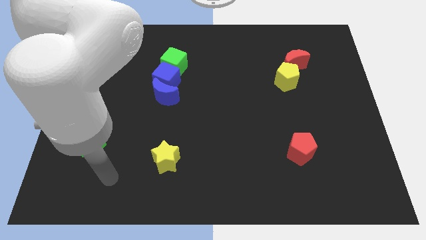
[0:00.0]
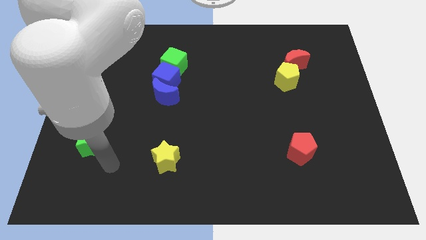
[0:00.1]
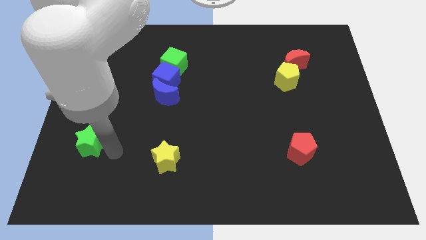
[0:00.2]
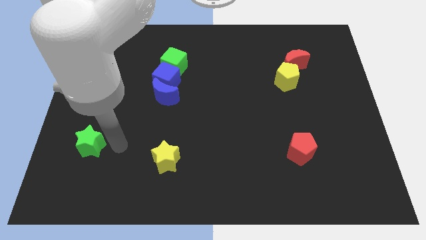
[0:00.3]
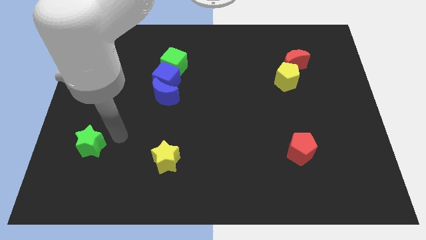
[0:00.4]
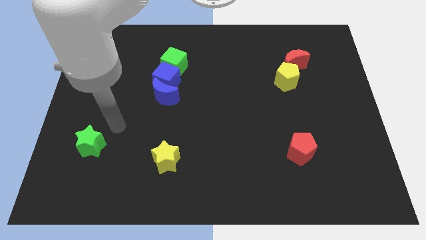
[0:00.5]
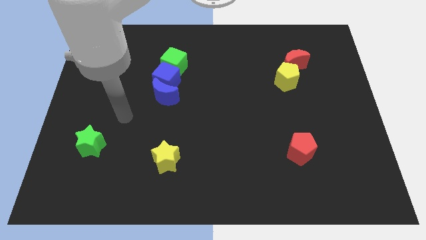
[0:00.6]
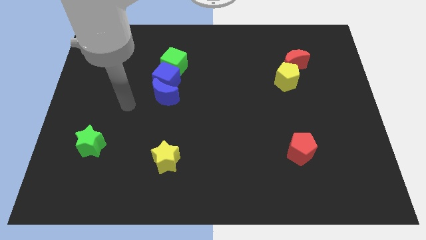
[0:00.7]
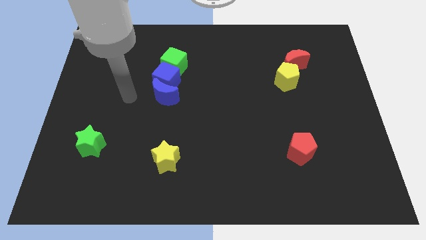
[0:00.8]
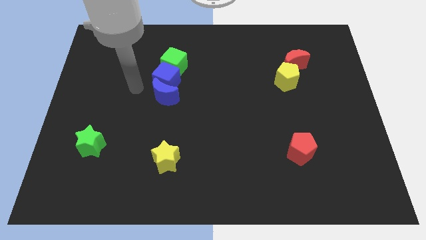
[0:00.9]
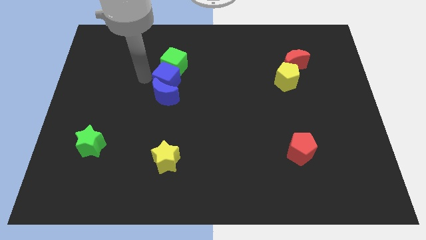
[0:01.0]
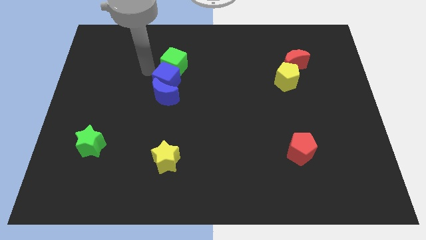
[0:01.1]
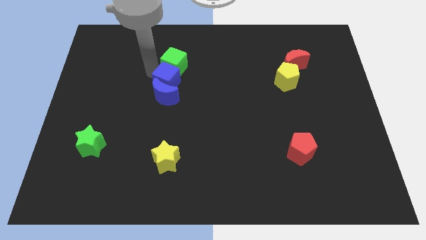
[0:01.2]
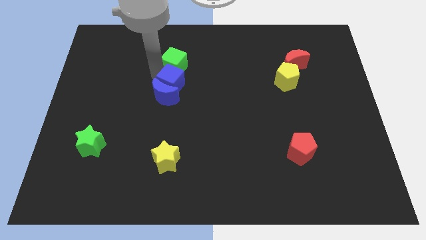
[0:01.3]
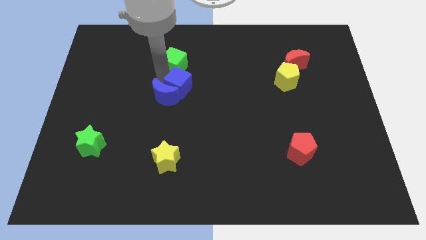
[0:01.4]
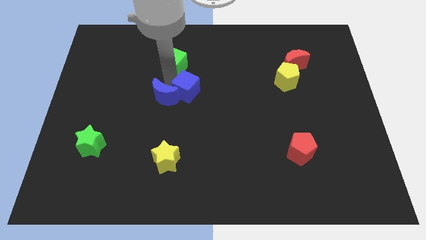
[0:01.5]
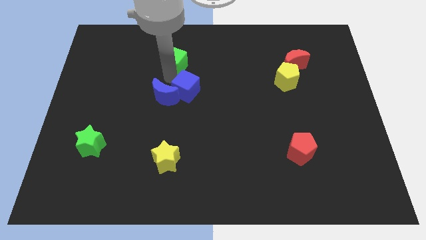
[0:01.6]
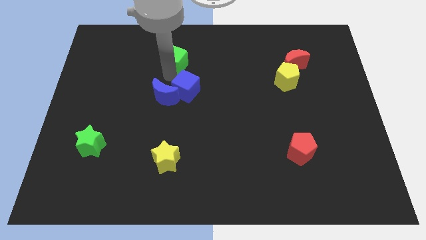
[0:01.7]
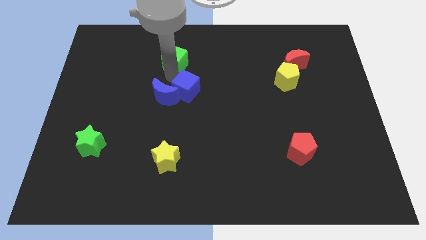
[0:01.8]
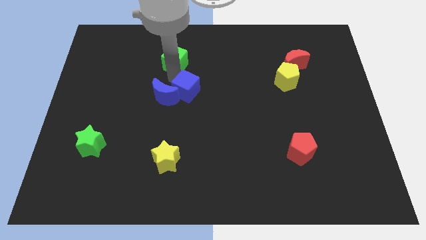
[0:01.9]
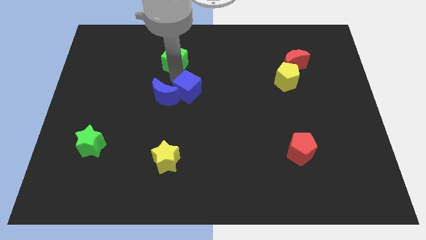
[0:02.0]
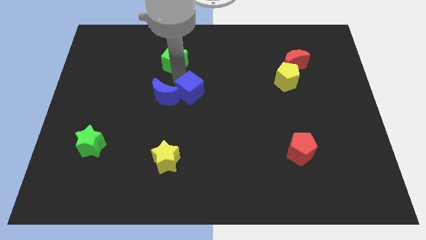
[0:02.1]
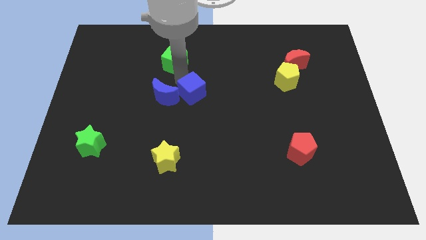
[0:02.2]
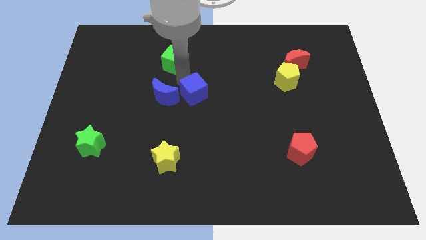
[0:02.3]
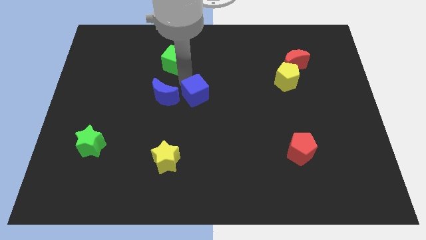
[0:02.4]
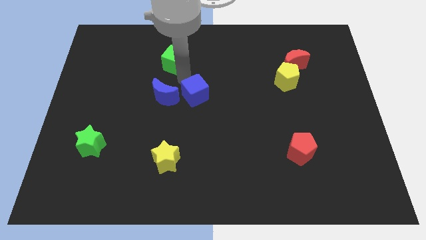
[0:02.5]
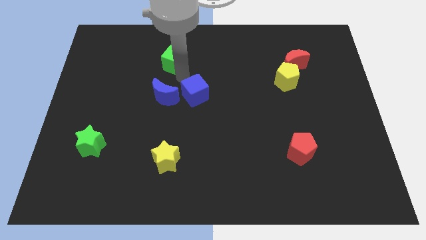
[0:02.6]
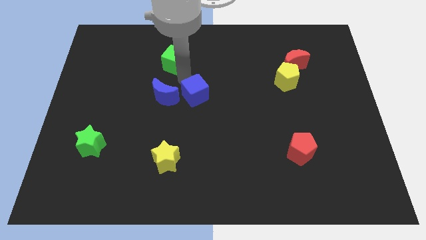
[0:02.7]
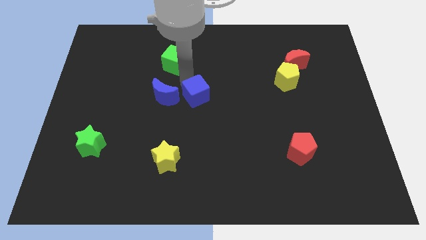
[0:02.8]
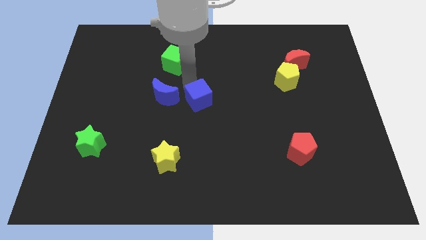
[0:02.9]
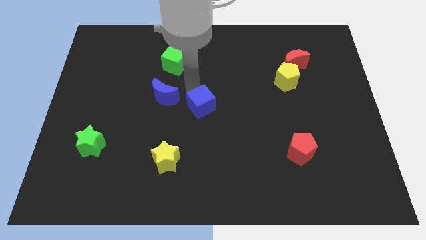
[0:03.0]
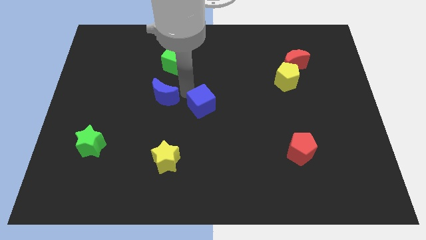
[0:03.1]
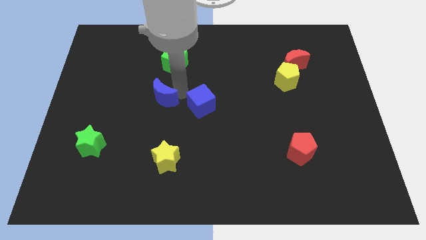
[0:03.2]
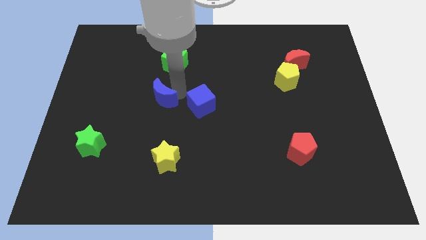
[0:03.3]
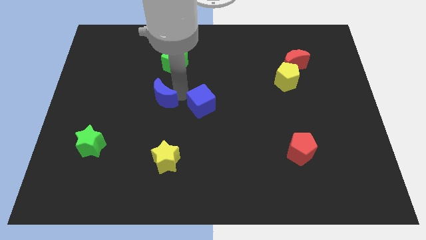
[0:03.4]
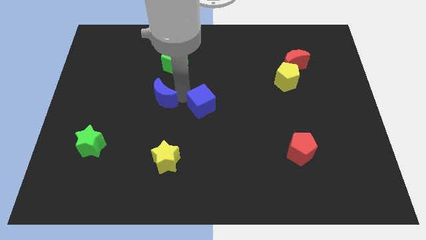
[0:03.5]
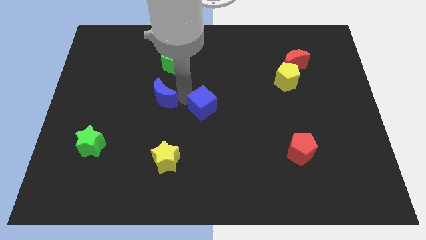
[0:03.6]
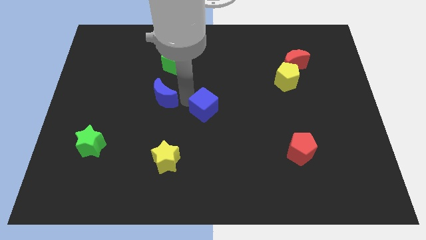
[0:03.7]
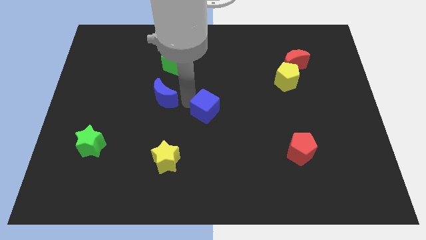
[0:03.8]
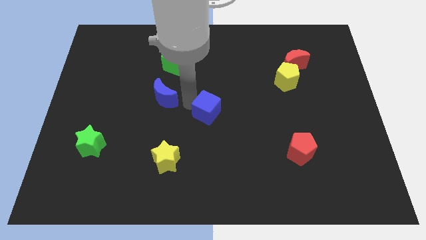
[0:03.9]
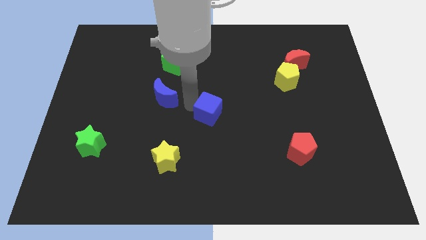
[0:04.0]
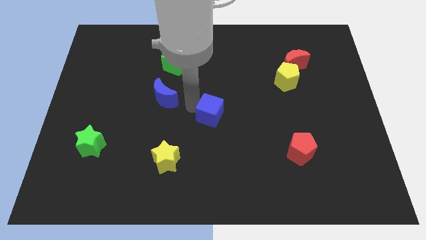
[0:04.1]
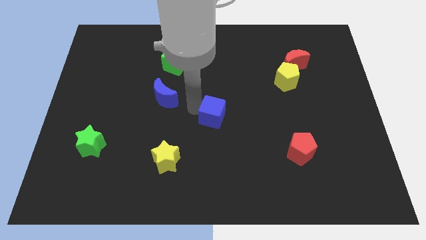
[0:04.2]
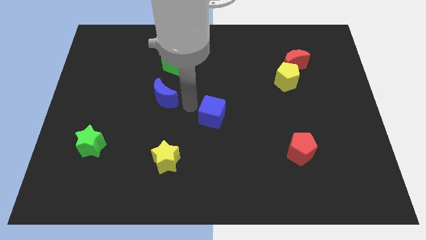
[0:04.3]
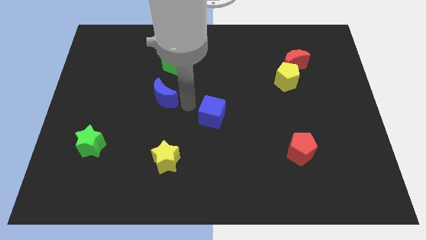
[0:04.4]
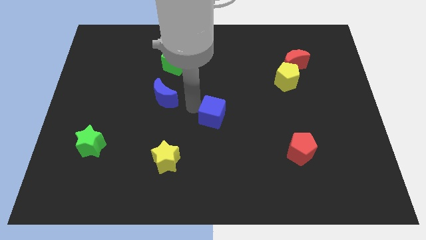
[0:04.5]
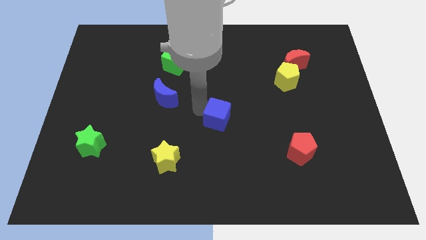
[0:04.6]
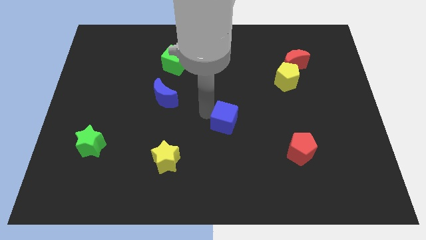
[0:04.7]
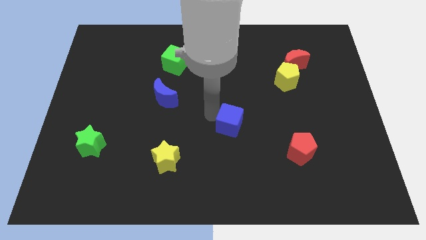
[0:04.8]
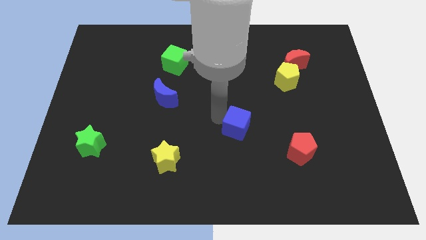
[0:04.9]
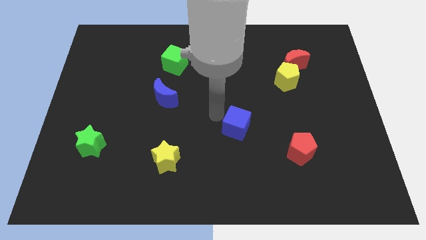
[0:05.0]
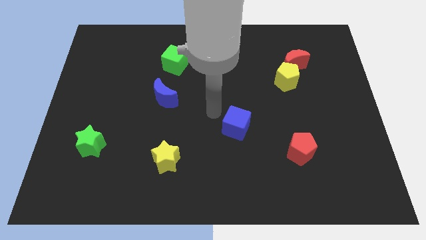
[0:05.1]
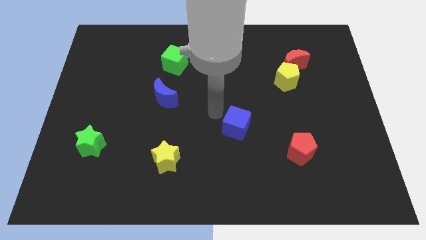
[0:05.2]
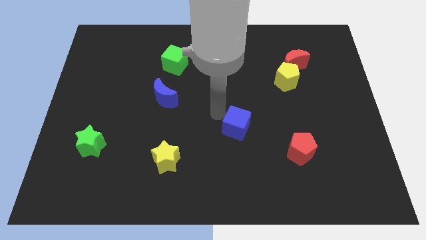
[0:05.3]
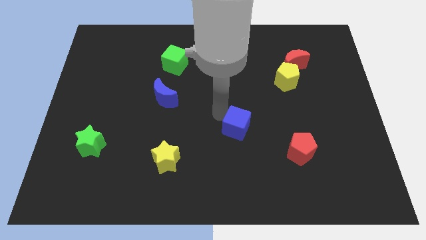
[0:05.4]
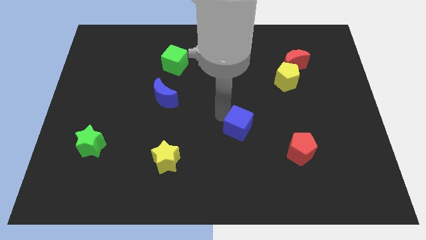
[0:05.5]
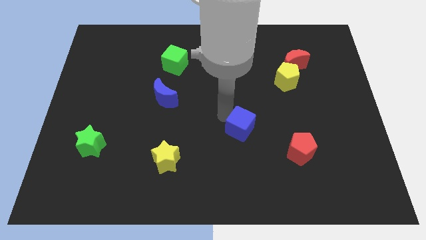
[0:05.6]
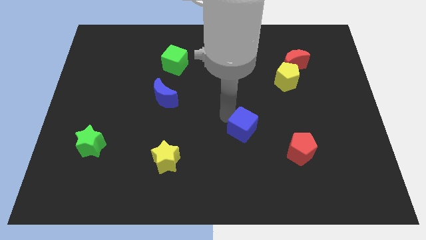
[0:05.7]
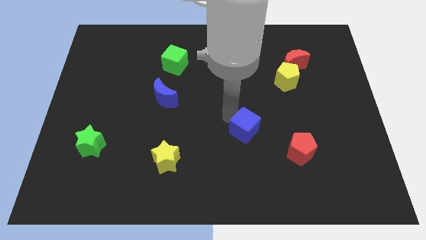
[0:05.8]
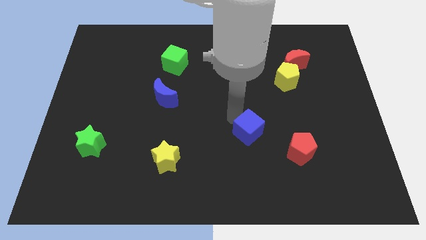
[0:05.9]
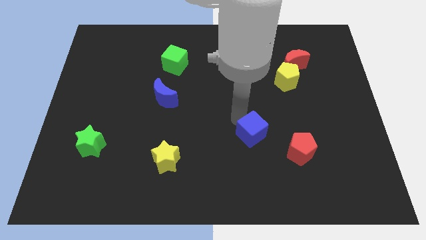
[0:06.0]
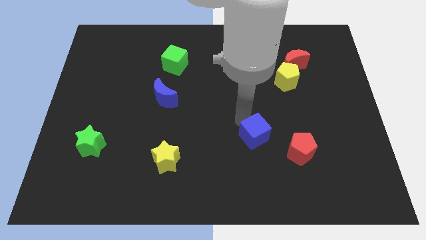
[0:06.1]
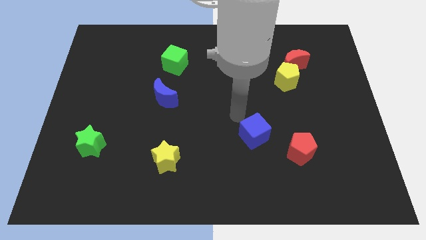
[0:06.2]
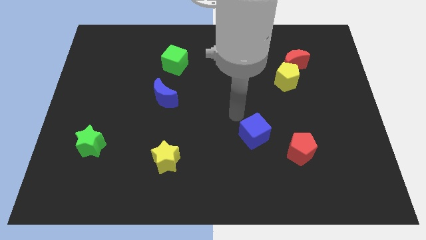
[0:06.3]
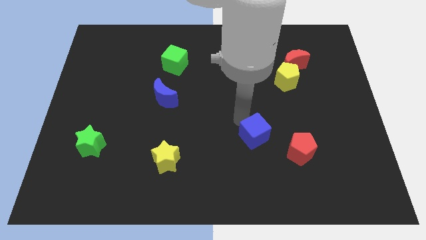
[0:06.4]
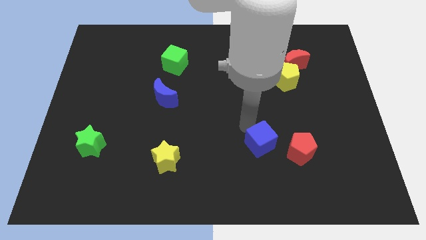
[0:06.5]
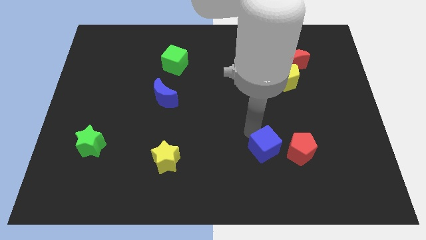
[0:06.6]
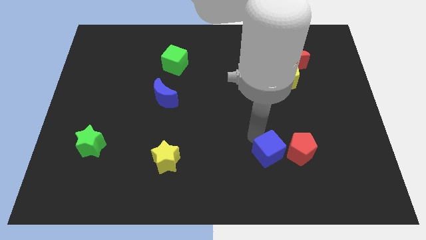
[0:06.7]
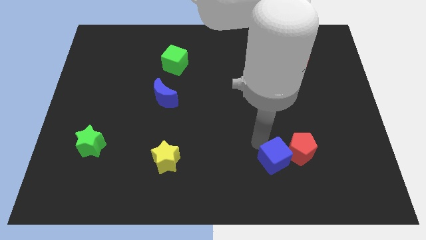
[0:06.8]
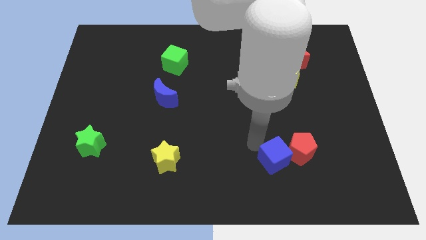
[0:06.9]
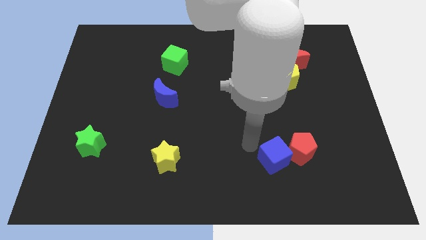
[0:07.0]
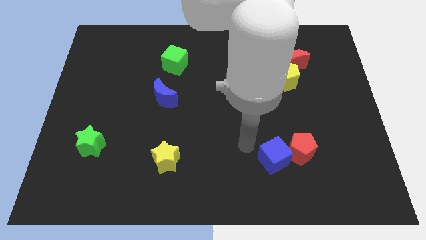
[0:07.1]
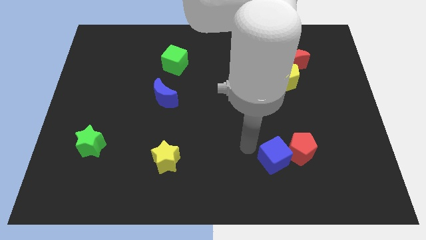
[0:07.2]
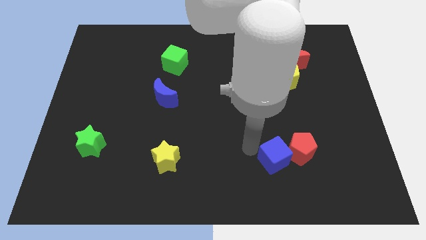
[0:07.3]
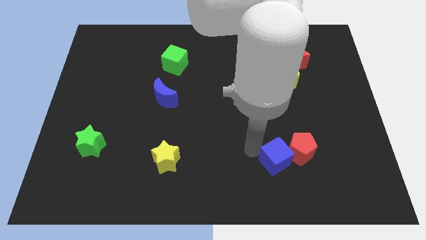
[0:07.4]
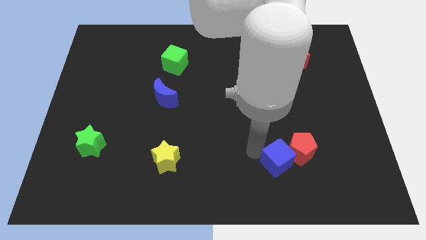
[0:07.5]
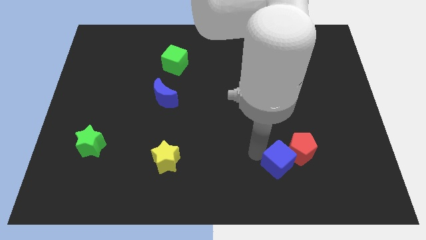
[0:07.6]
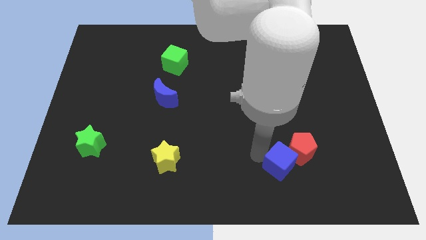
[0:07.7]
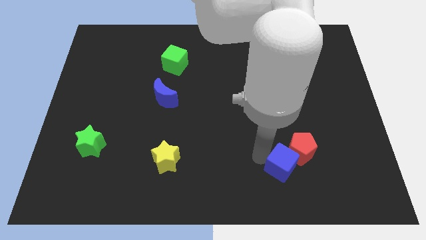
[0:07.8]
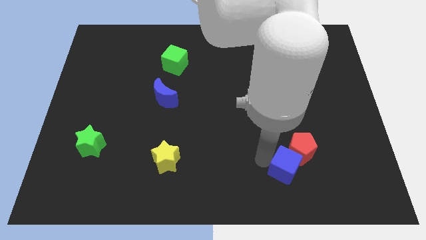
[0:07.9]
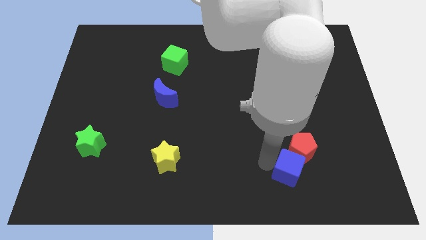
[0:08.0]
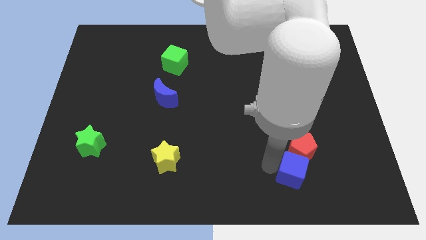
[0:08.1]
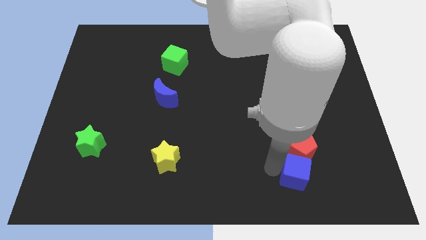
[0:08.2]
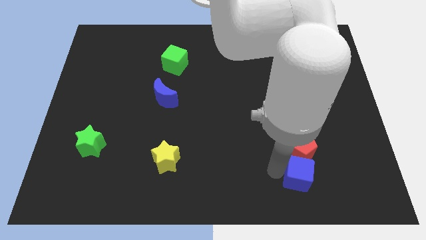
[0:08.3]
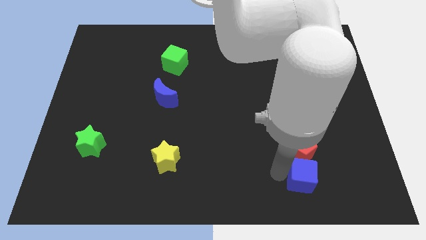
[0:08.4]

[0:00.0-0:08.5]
put the blue cube to the bottom right side of the red pentagon
